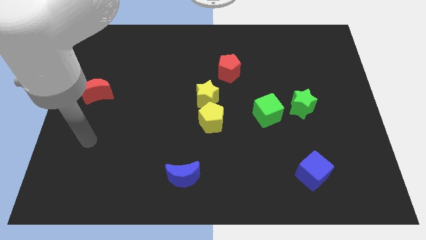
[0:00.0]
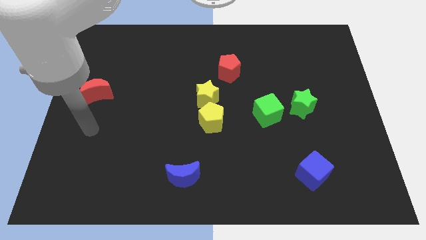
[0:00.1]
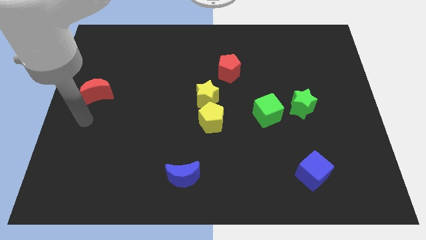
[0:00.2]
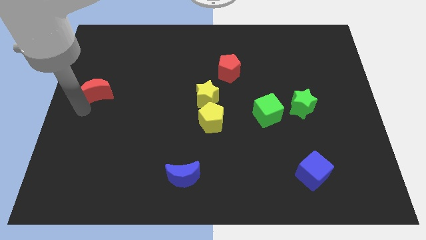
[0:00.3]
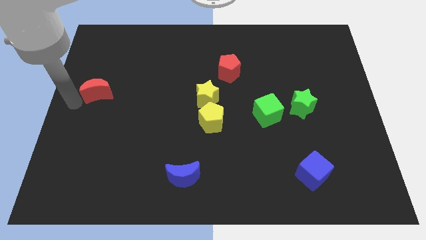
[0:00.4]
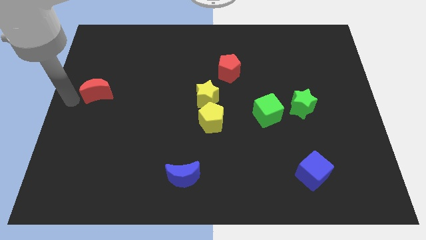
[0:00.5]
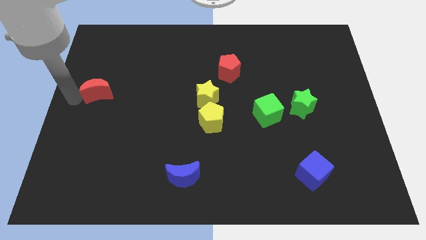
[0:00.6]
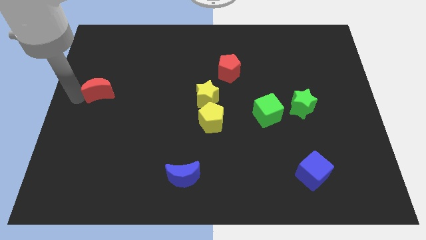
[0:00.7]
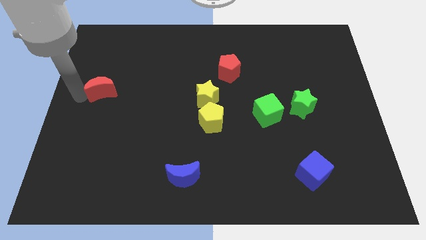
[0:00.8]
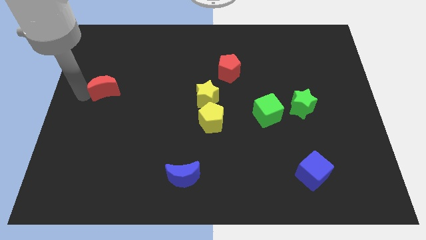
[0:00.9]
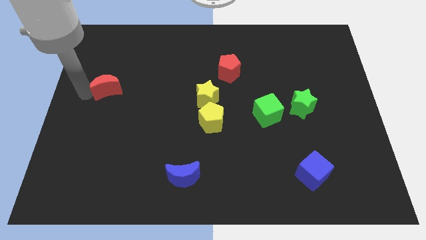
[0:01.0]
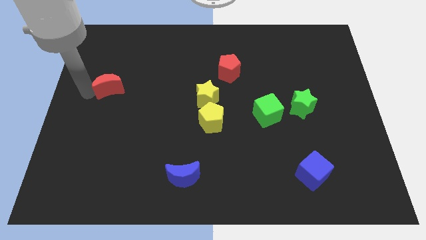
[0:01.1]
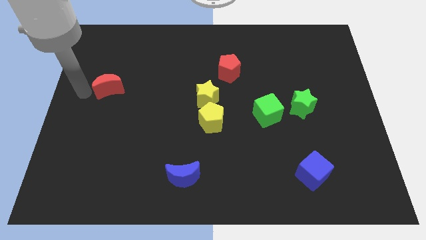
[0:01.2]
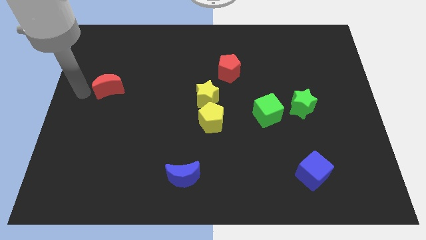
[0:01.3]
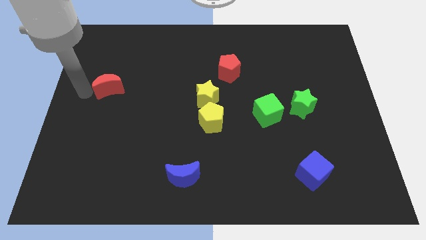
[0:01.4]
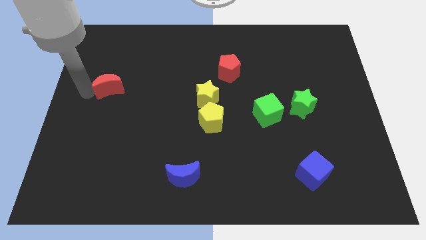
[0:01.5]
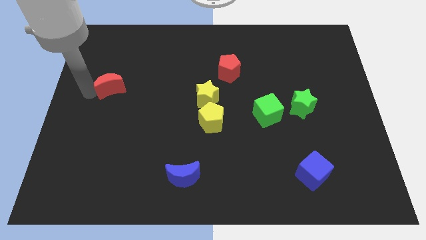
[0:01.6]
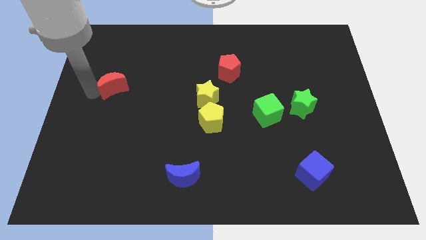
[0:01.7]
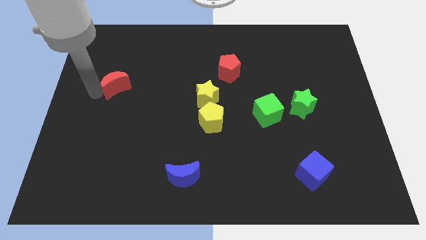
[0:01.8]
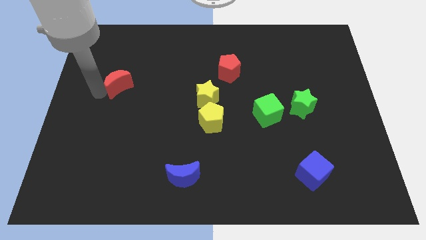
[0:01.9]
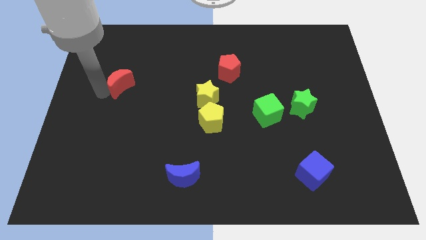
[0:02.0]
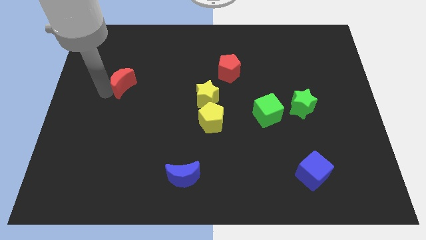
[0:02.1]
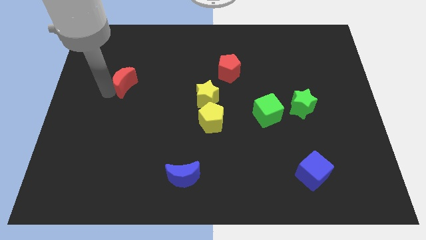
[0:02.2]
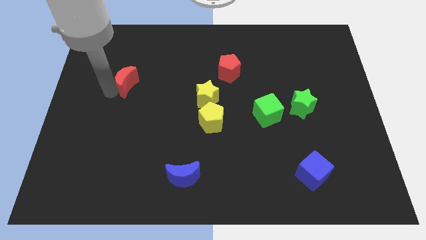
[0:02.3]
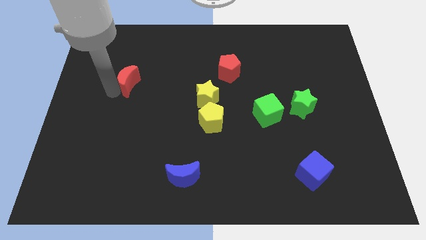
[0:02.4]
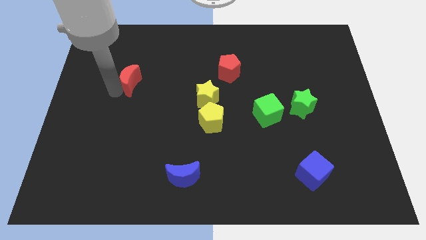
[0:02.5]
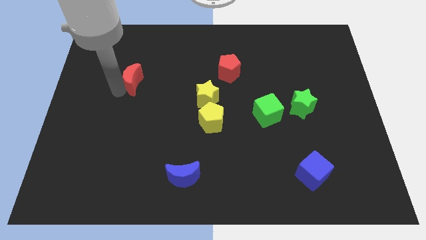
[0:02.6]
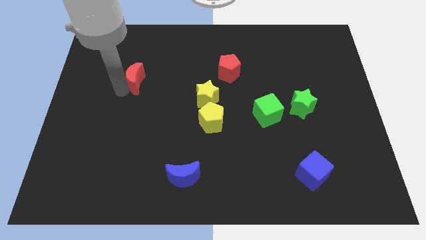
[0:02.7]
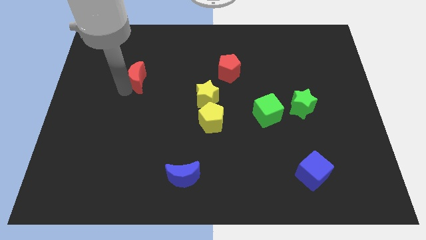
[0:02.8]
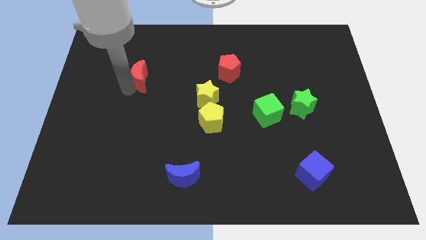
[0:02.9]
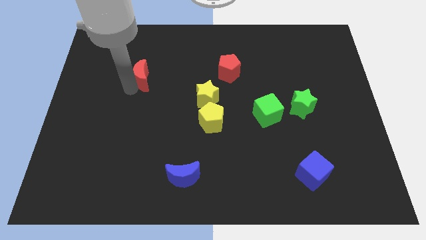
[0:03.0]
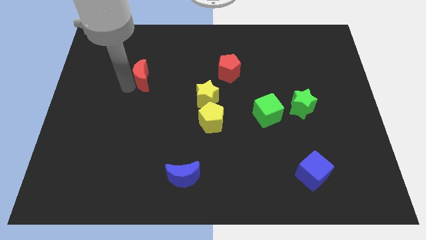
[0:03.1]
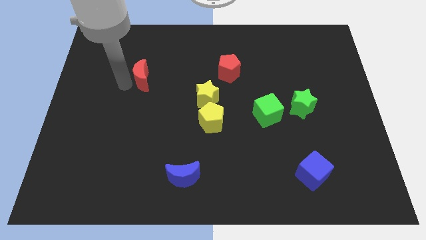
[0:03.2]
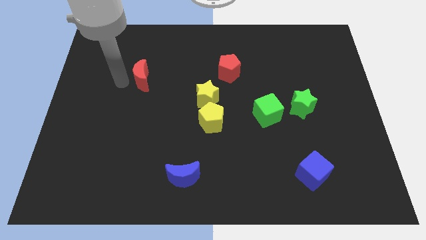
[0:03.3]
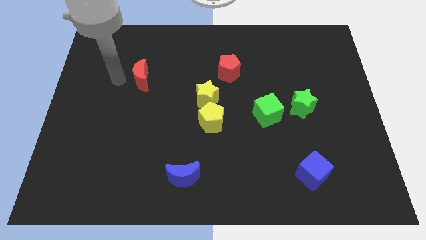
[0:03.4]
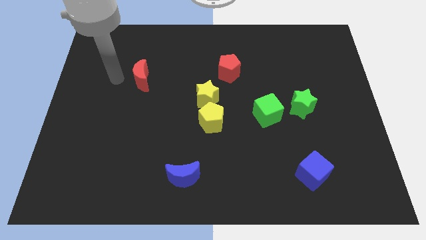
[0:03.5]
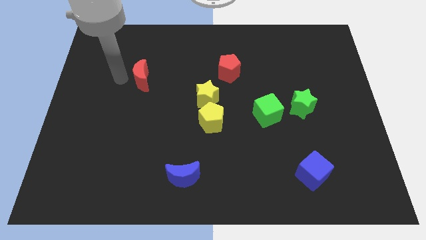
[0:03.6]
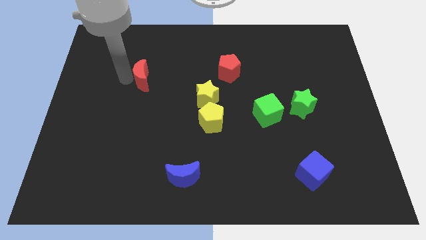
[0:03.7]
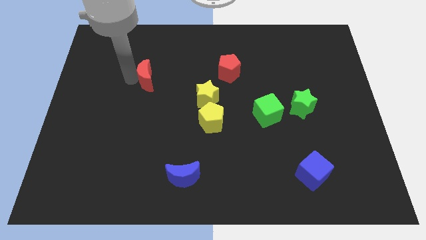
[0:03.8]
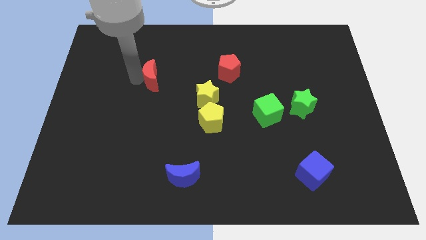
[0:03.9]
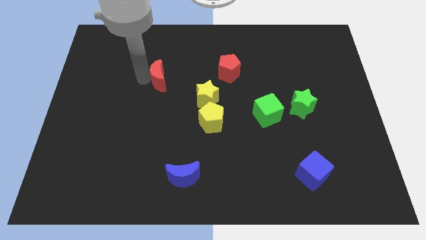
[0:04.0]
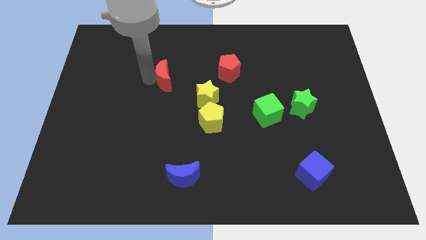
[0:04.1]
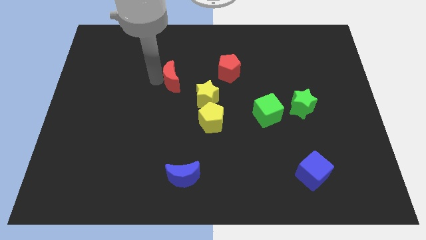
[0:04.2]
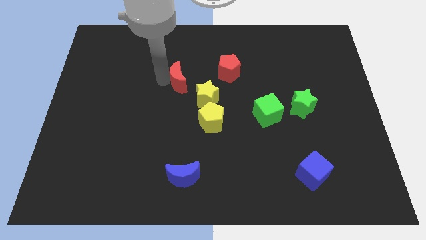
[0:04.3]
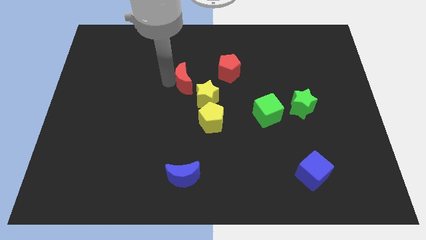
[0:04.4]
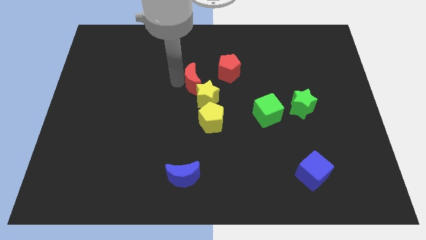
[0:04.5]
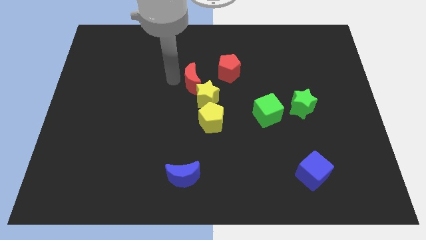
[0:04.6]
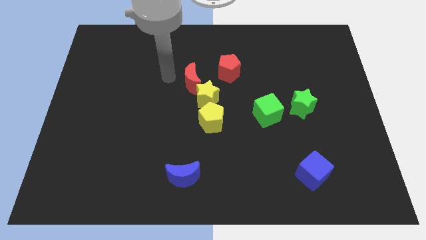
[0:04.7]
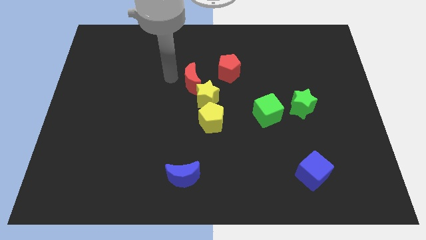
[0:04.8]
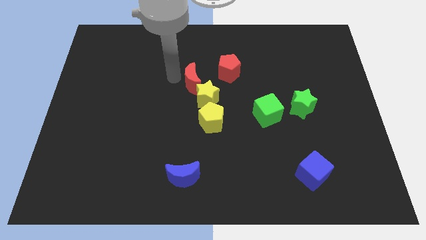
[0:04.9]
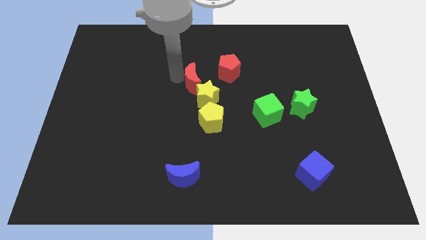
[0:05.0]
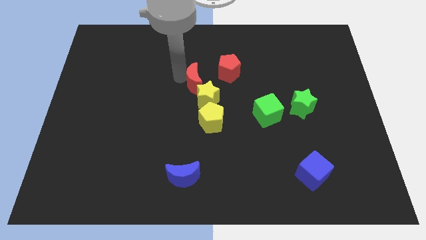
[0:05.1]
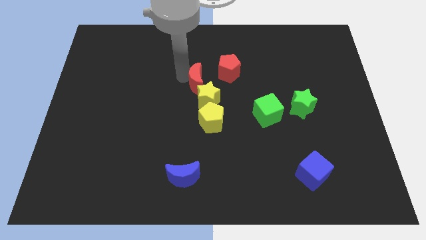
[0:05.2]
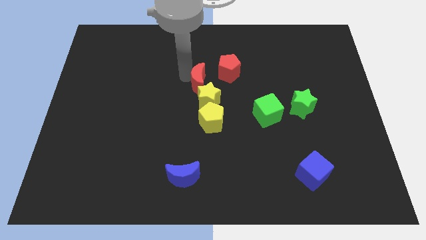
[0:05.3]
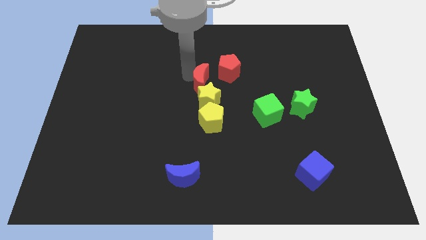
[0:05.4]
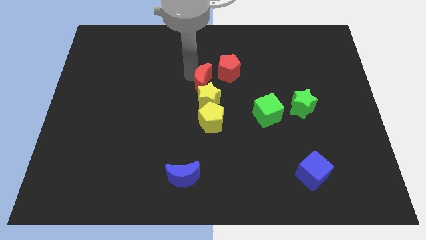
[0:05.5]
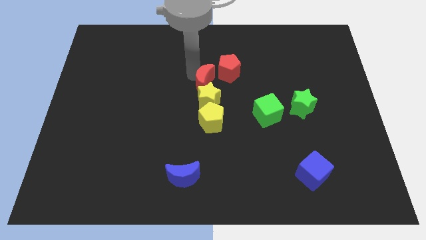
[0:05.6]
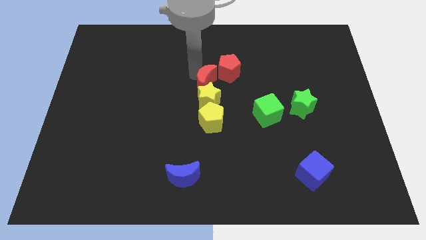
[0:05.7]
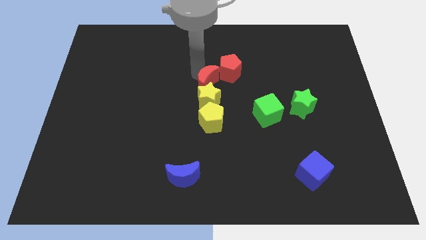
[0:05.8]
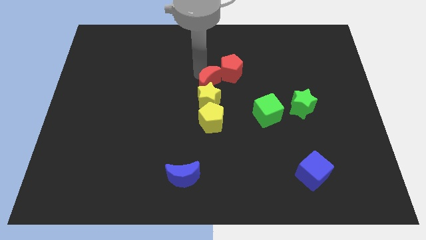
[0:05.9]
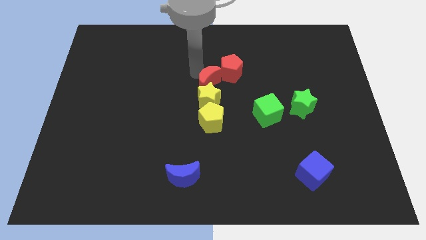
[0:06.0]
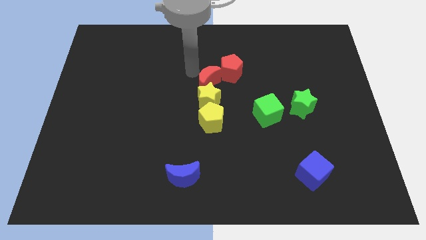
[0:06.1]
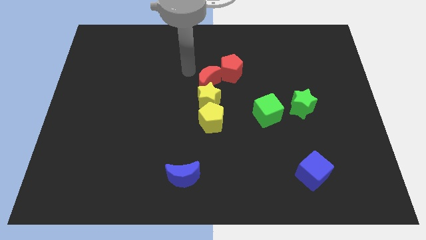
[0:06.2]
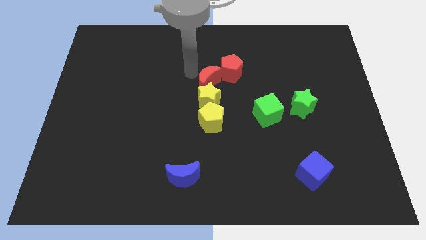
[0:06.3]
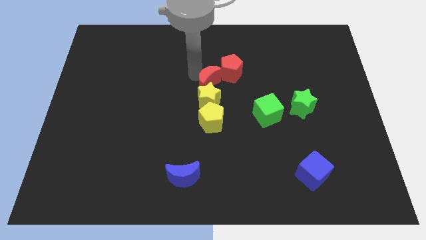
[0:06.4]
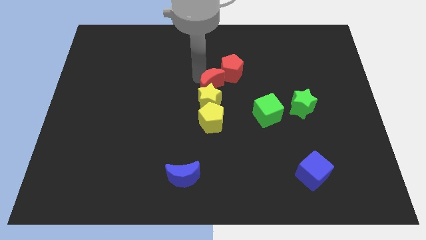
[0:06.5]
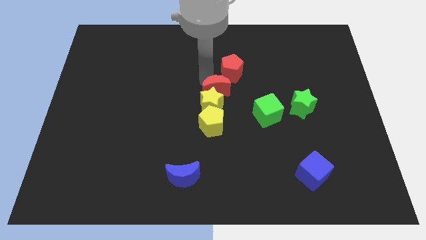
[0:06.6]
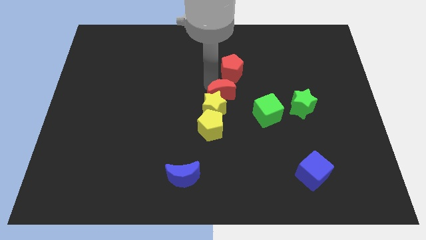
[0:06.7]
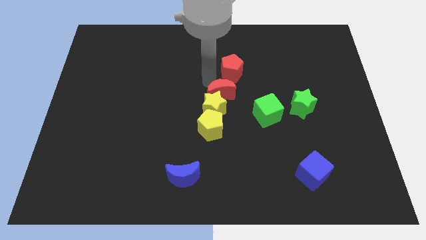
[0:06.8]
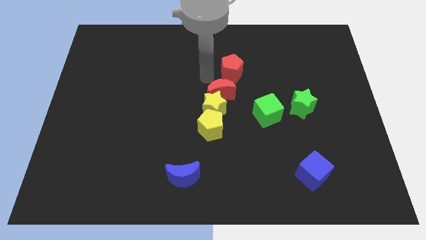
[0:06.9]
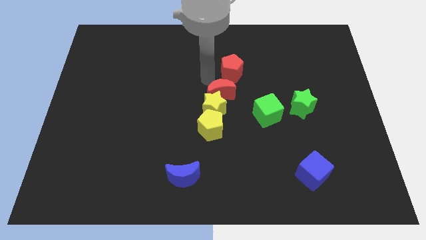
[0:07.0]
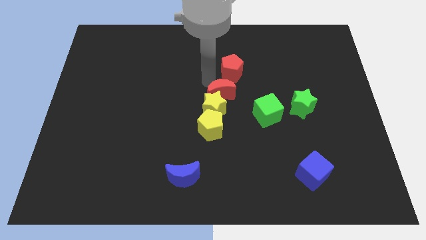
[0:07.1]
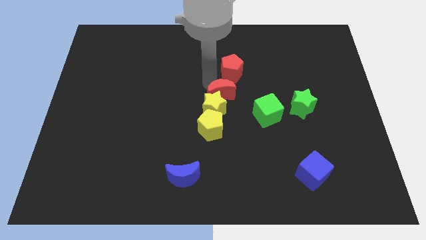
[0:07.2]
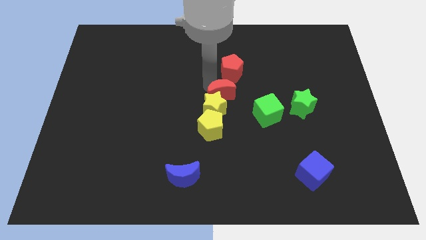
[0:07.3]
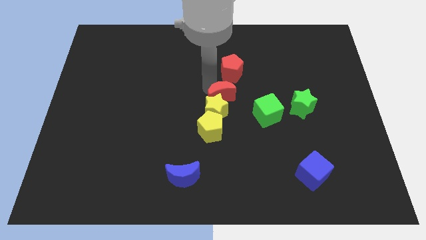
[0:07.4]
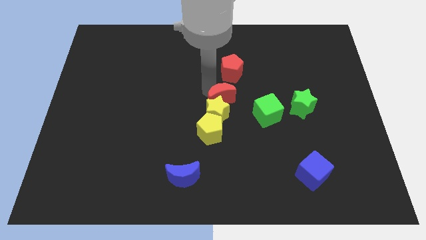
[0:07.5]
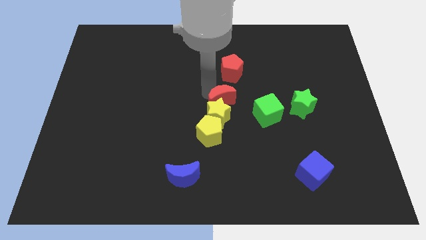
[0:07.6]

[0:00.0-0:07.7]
move the red moon to the top right side of the yellow pentagon
